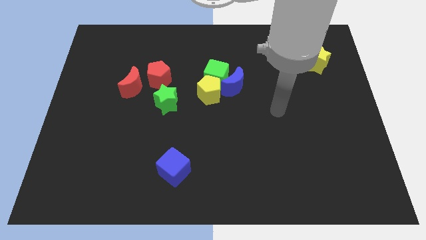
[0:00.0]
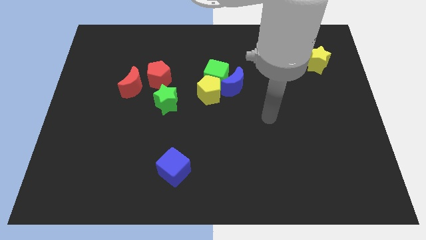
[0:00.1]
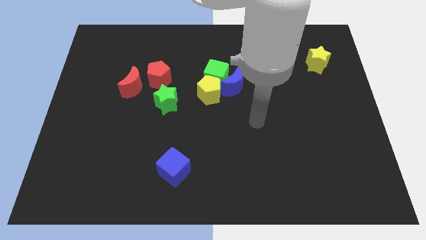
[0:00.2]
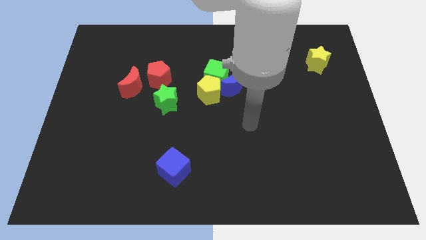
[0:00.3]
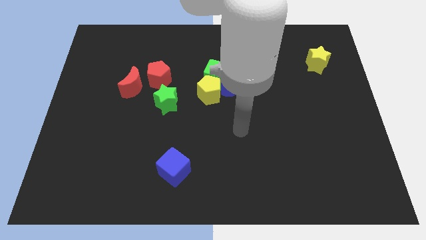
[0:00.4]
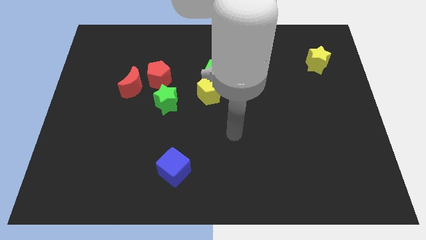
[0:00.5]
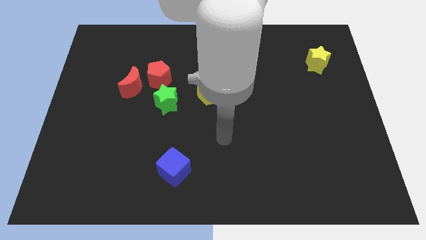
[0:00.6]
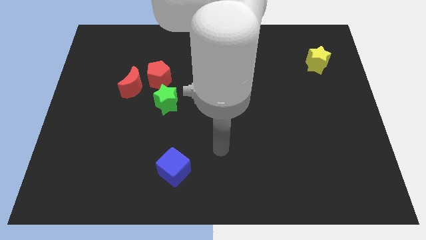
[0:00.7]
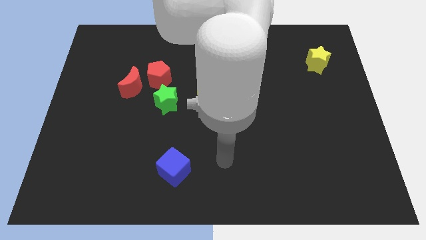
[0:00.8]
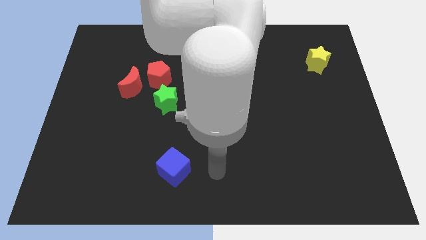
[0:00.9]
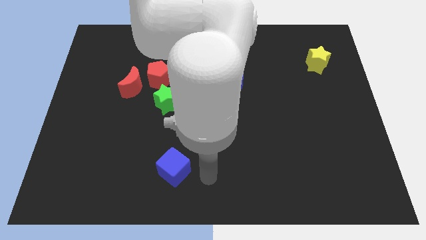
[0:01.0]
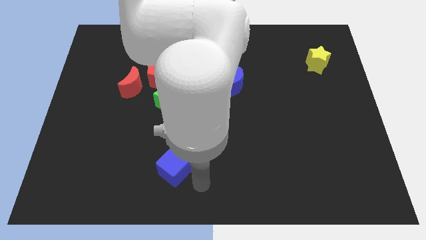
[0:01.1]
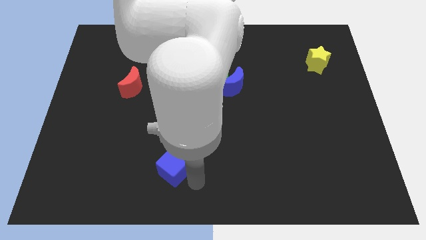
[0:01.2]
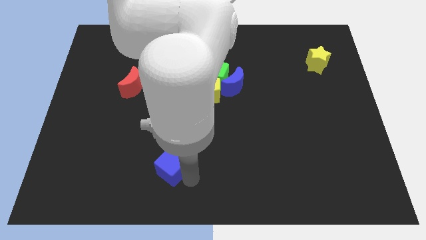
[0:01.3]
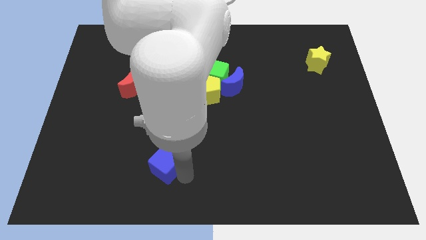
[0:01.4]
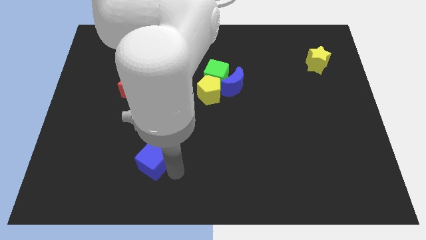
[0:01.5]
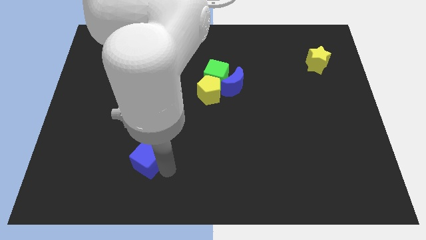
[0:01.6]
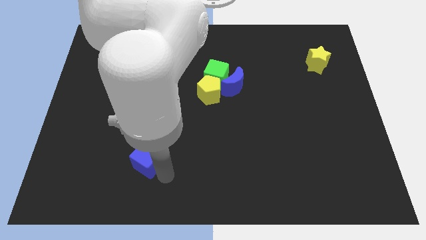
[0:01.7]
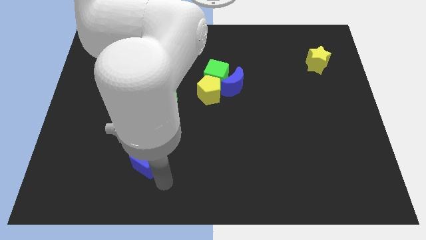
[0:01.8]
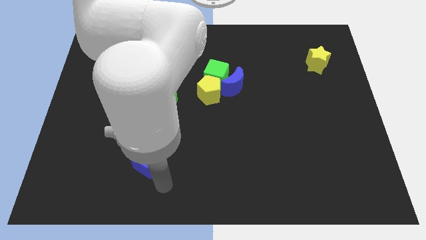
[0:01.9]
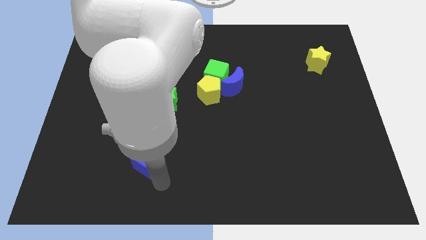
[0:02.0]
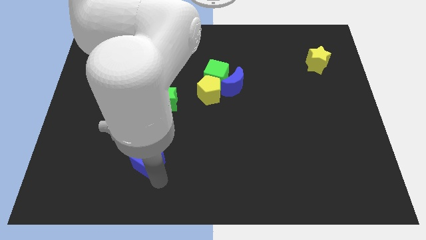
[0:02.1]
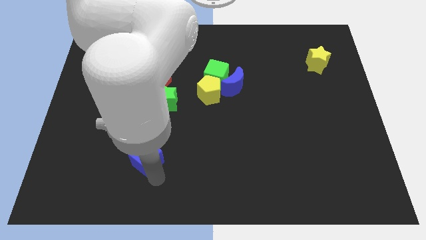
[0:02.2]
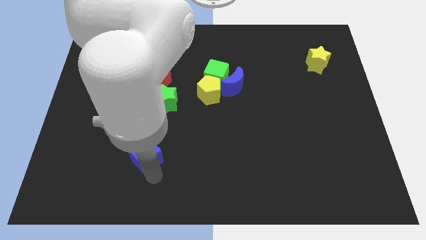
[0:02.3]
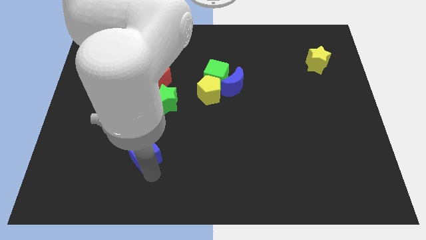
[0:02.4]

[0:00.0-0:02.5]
push the blue cube upwards and to the left slightly

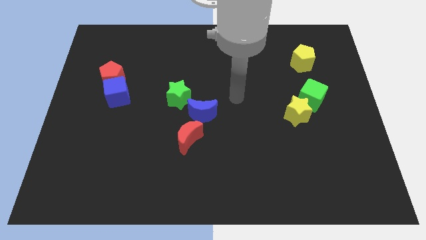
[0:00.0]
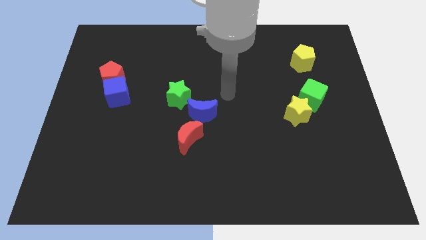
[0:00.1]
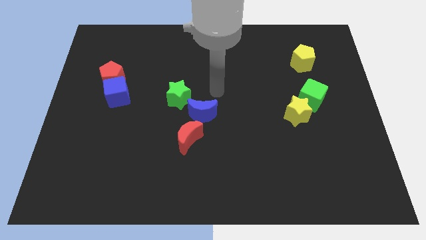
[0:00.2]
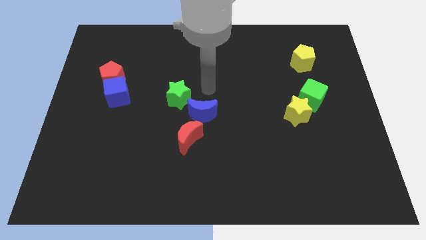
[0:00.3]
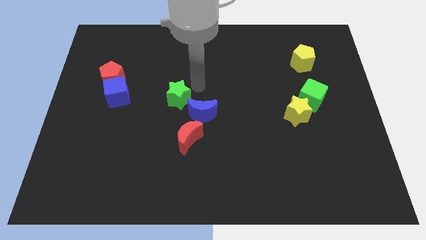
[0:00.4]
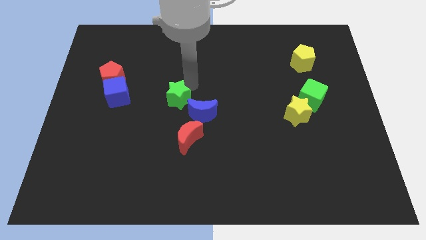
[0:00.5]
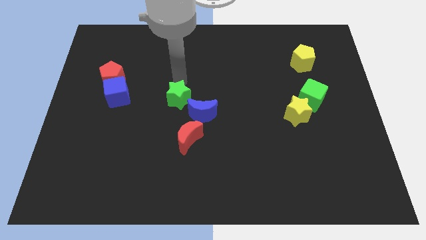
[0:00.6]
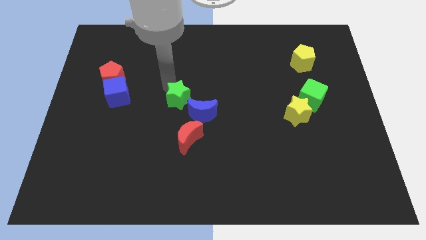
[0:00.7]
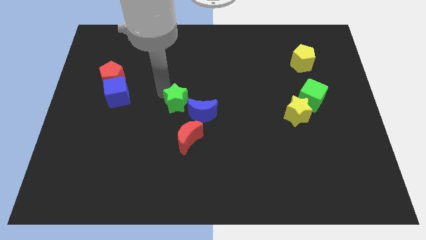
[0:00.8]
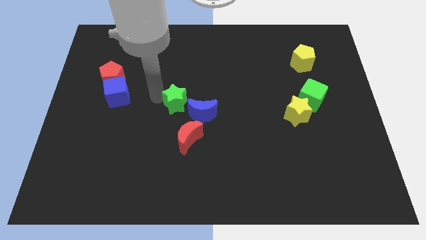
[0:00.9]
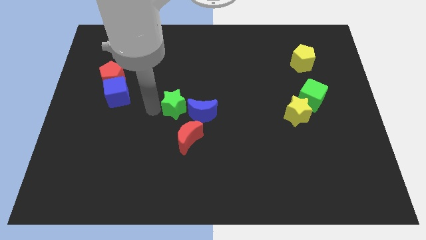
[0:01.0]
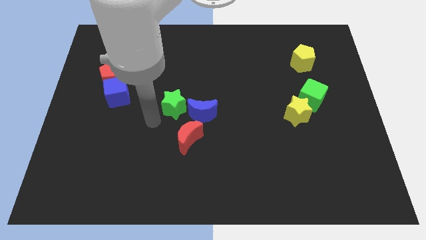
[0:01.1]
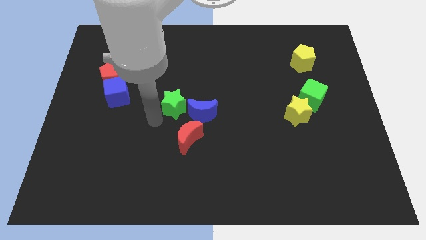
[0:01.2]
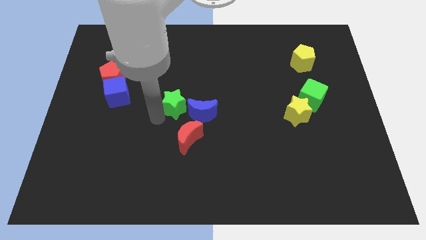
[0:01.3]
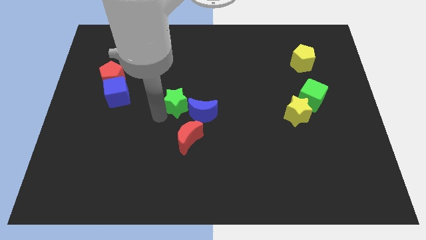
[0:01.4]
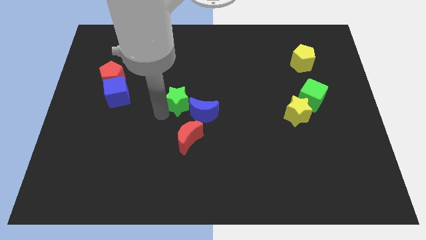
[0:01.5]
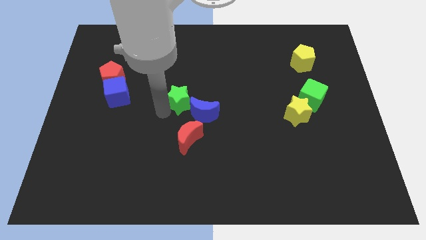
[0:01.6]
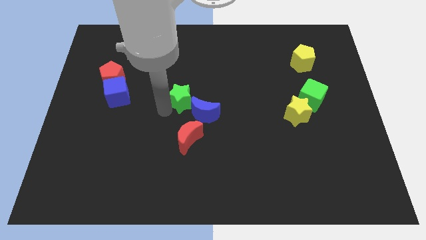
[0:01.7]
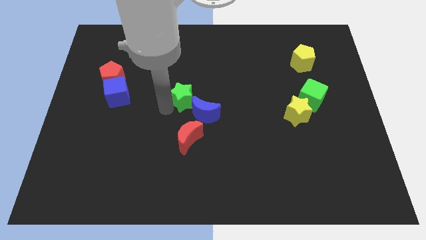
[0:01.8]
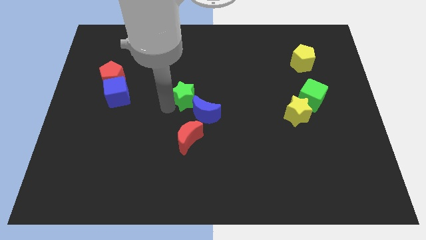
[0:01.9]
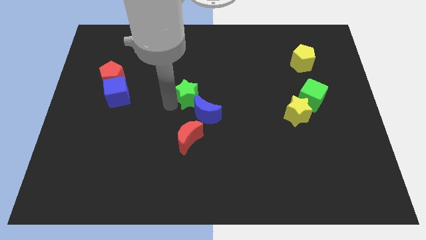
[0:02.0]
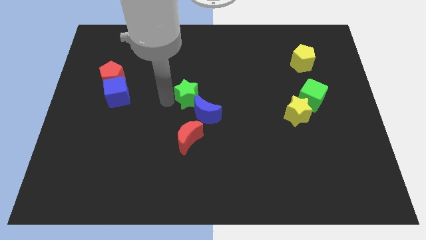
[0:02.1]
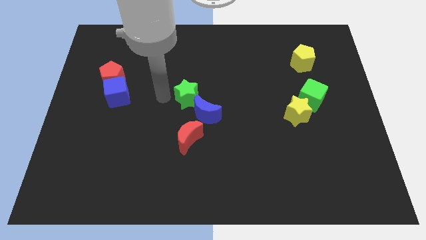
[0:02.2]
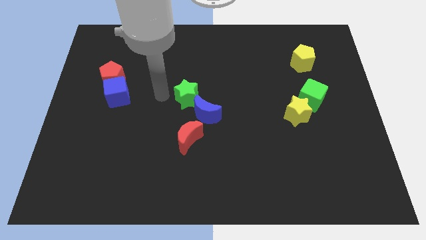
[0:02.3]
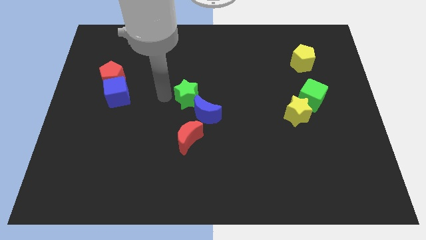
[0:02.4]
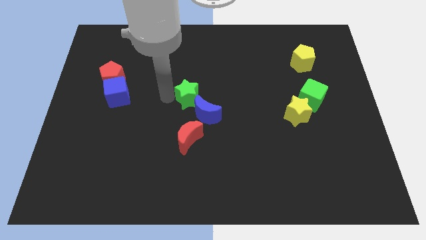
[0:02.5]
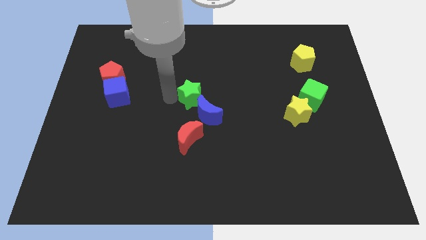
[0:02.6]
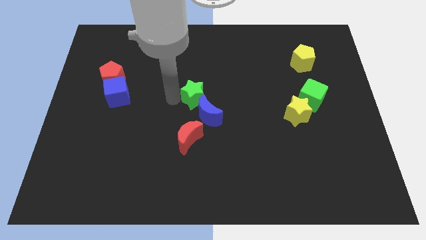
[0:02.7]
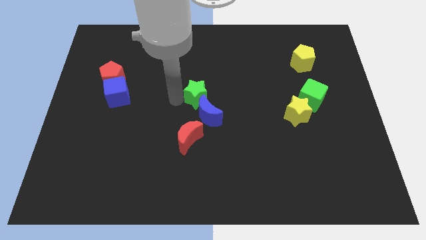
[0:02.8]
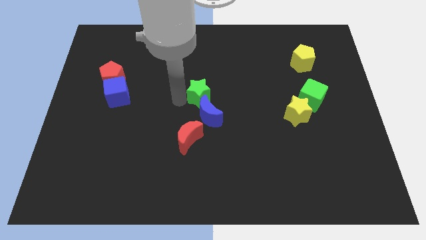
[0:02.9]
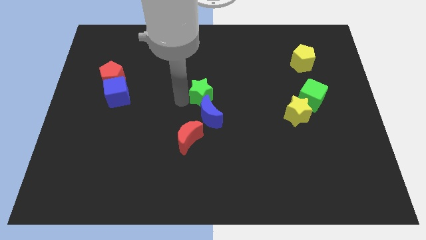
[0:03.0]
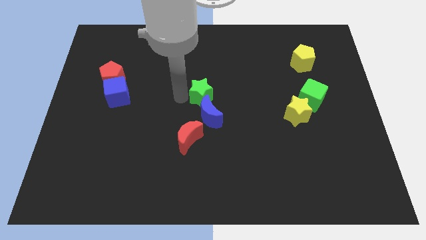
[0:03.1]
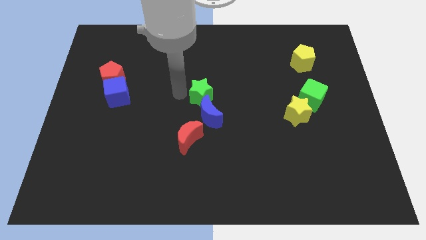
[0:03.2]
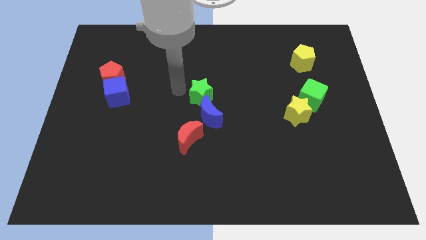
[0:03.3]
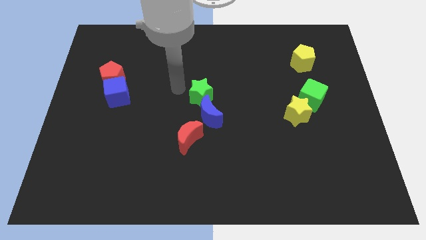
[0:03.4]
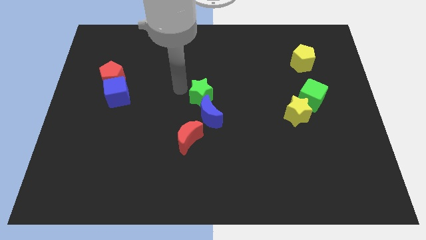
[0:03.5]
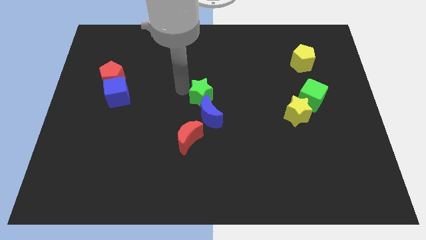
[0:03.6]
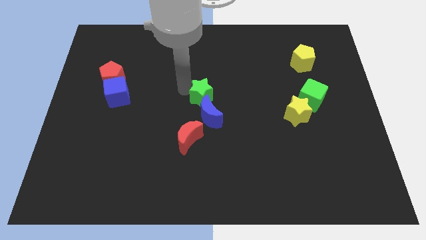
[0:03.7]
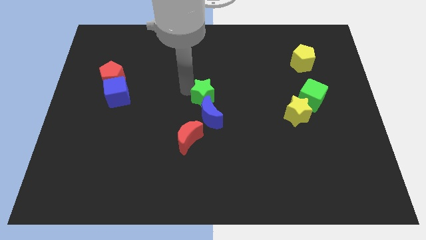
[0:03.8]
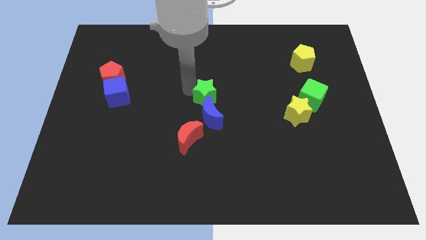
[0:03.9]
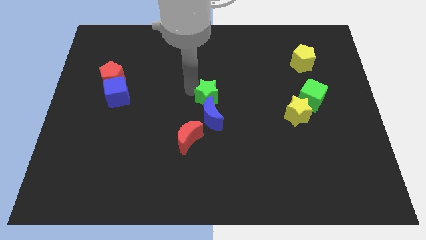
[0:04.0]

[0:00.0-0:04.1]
push the green star to the right somewhat

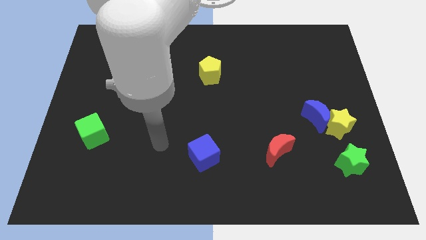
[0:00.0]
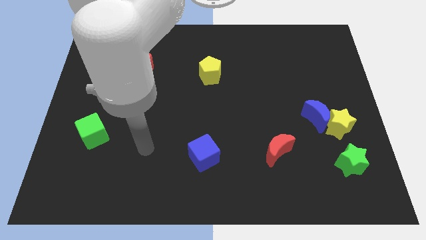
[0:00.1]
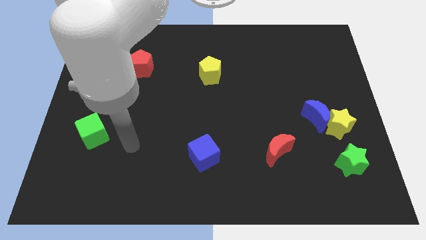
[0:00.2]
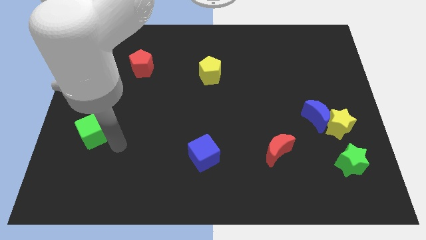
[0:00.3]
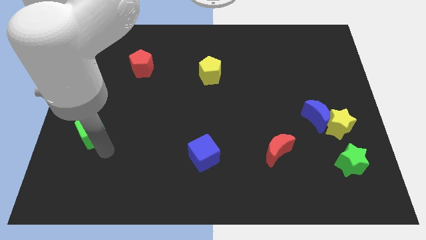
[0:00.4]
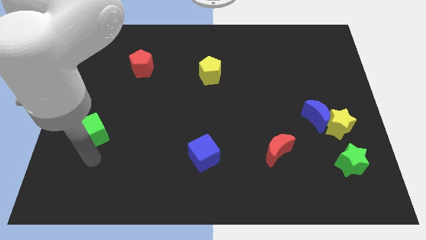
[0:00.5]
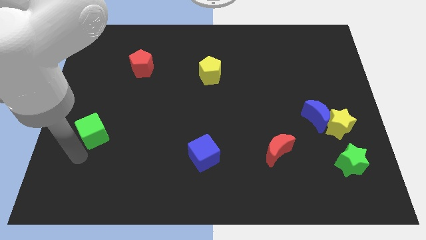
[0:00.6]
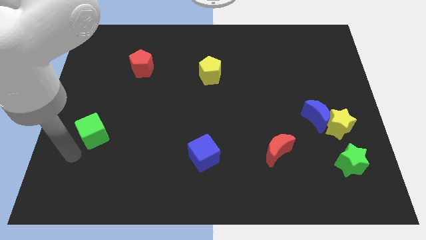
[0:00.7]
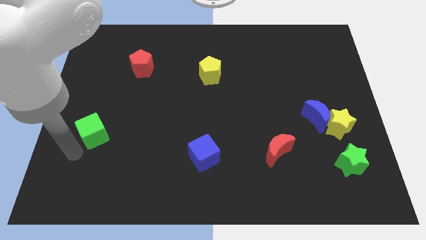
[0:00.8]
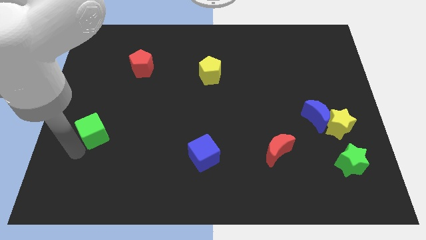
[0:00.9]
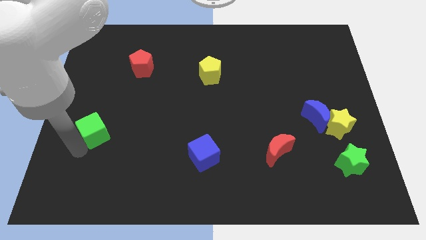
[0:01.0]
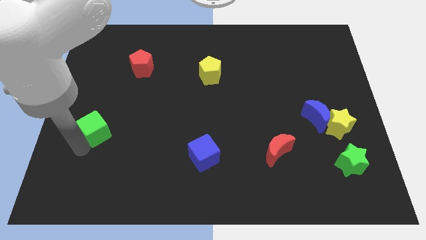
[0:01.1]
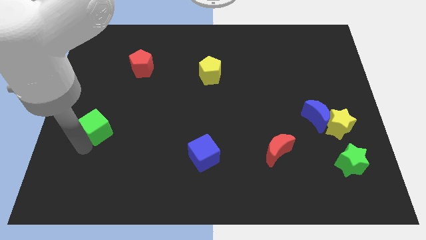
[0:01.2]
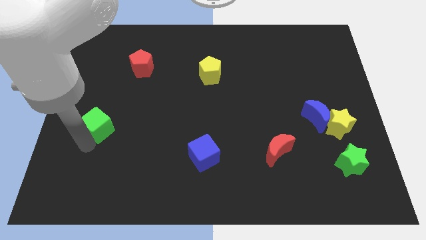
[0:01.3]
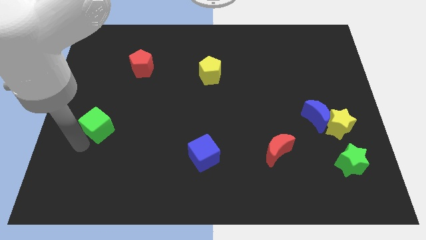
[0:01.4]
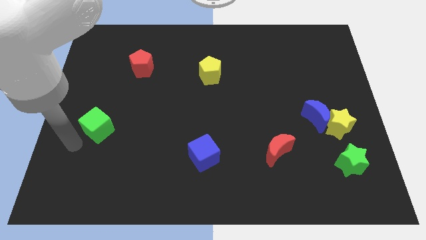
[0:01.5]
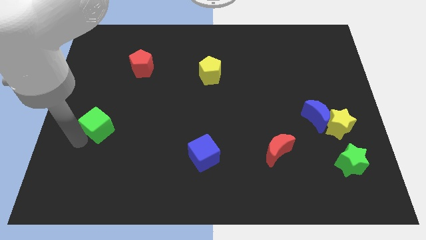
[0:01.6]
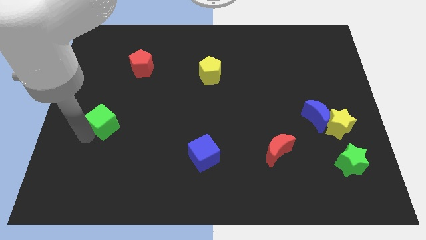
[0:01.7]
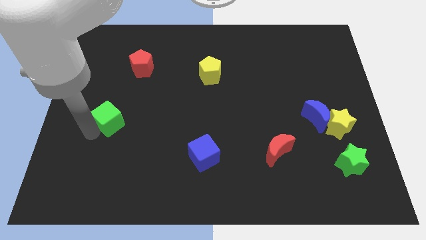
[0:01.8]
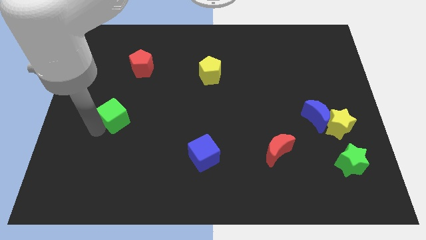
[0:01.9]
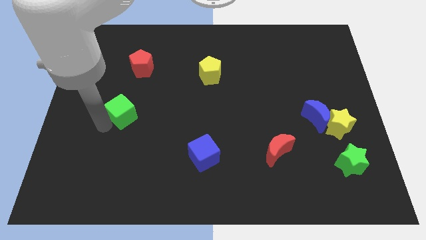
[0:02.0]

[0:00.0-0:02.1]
slightly push the green cube up and to the right diagonally
